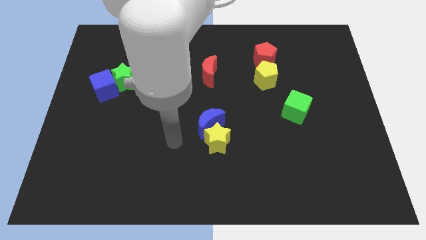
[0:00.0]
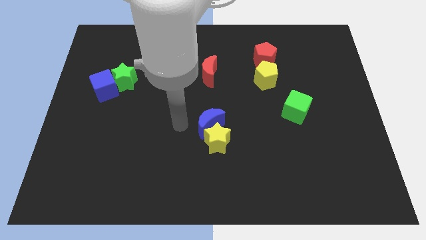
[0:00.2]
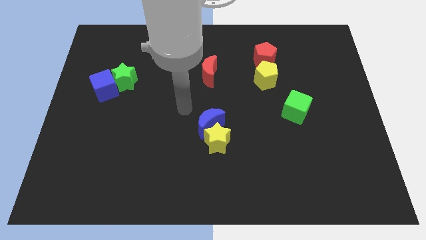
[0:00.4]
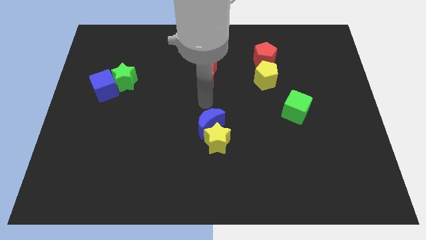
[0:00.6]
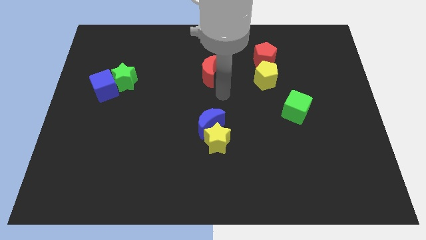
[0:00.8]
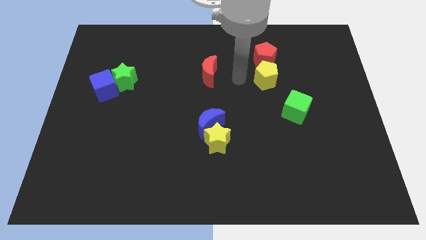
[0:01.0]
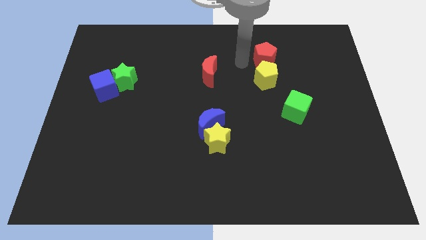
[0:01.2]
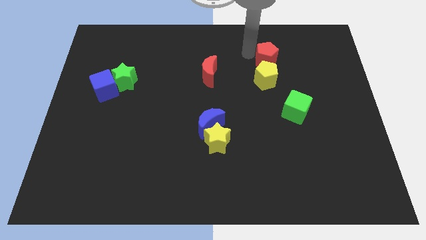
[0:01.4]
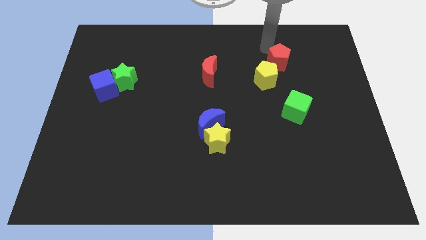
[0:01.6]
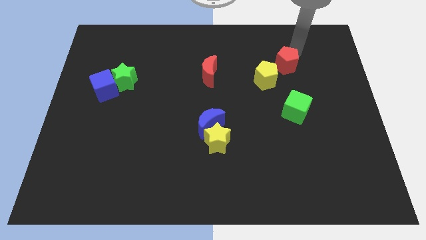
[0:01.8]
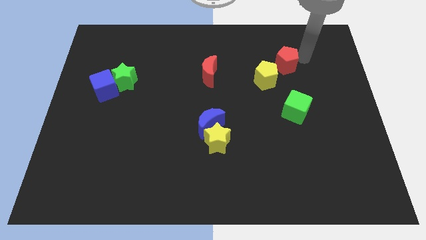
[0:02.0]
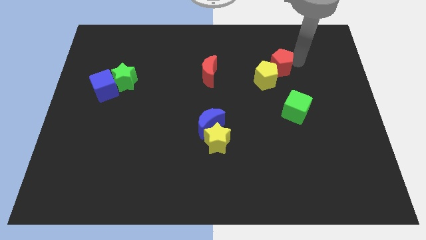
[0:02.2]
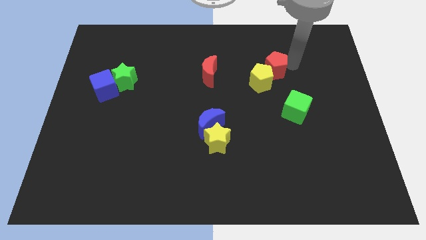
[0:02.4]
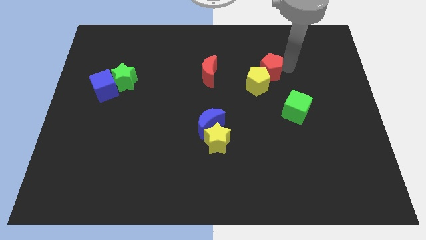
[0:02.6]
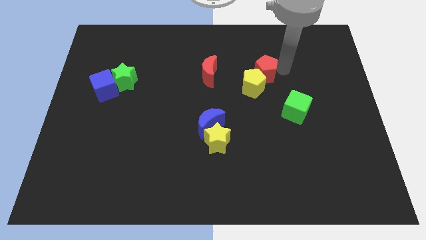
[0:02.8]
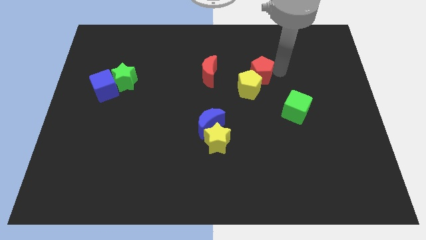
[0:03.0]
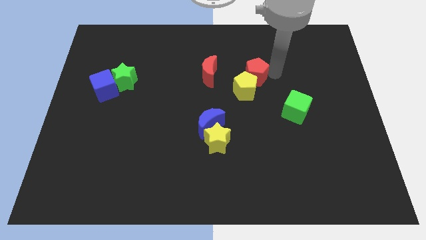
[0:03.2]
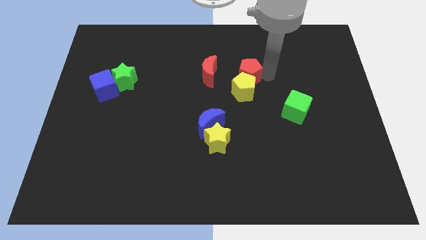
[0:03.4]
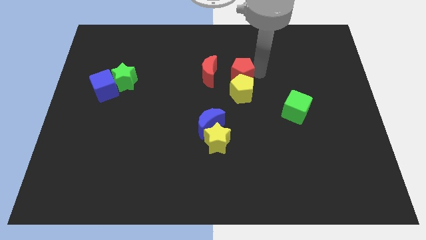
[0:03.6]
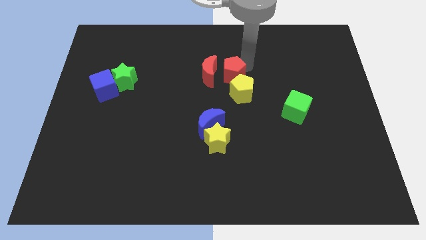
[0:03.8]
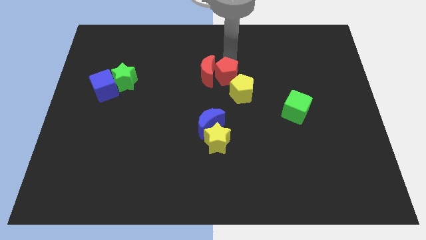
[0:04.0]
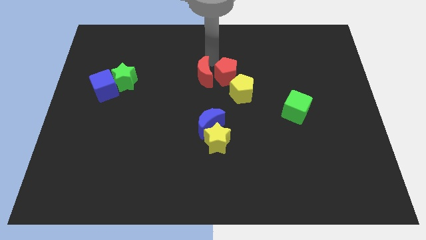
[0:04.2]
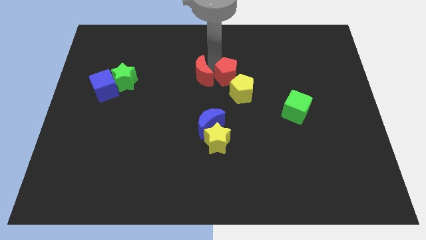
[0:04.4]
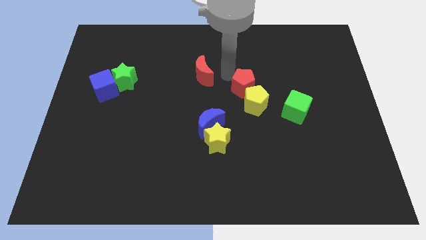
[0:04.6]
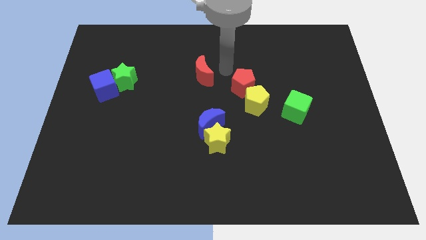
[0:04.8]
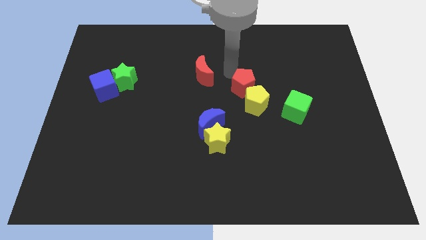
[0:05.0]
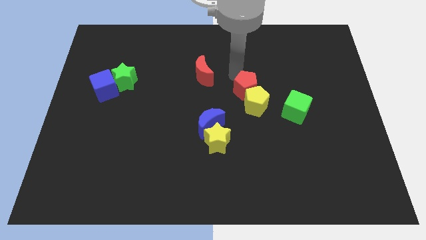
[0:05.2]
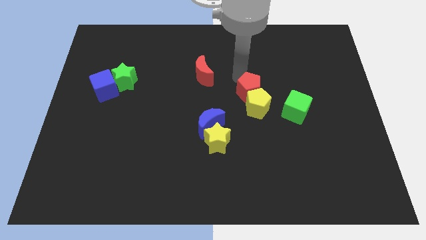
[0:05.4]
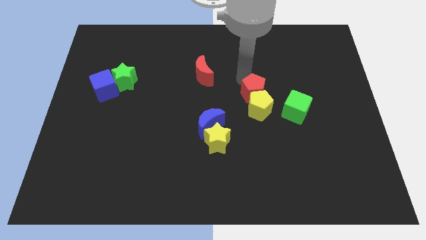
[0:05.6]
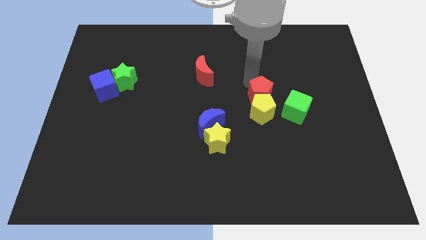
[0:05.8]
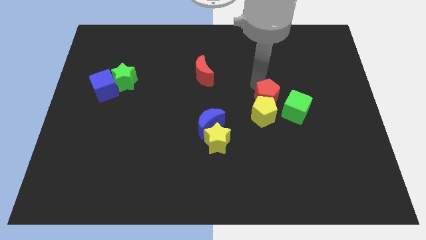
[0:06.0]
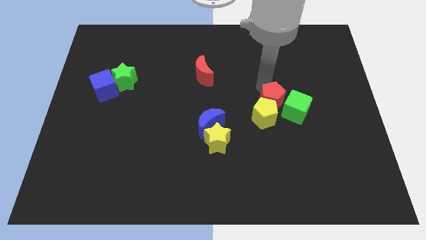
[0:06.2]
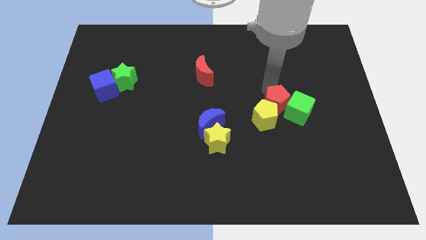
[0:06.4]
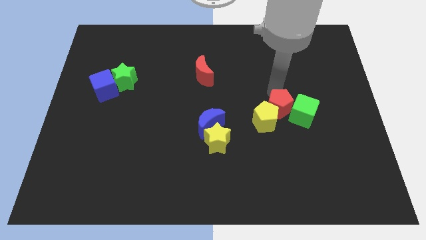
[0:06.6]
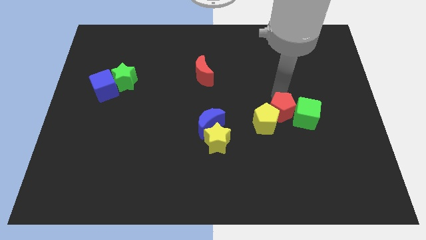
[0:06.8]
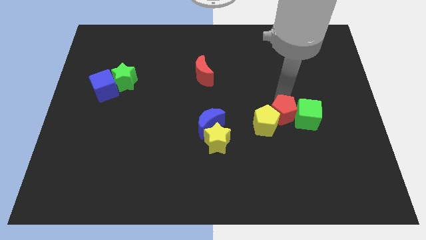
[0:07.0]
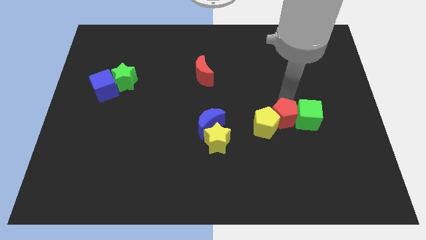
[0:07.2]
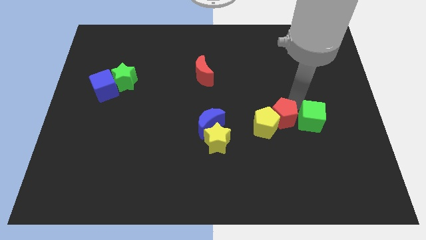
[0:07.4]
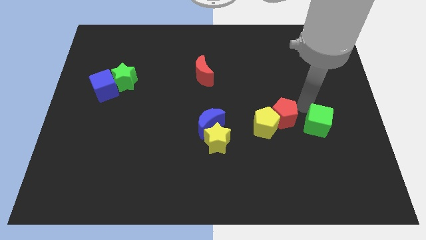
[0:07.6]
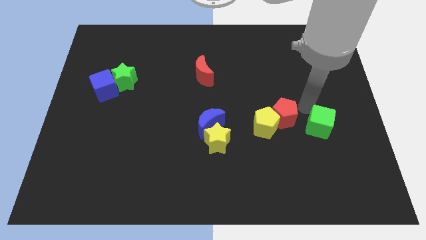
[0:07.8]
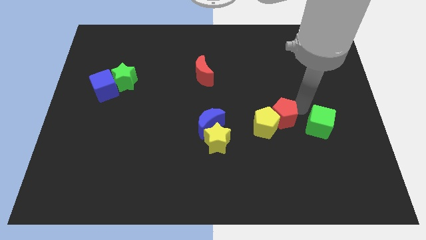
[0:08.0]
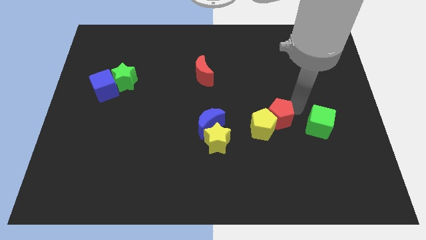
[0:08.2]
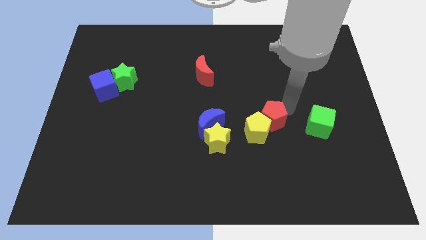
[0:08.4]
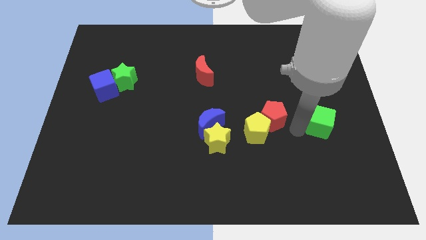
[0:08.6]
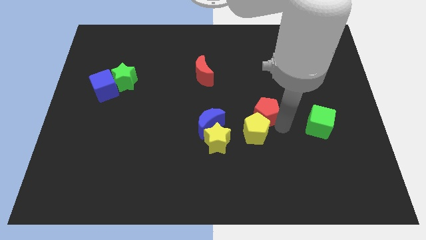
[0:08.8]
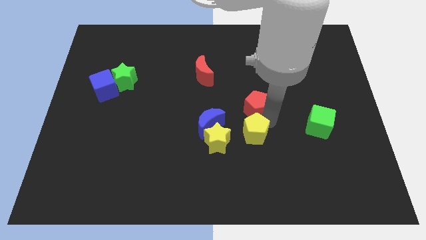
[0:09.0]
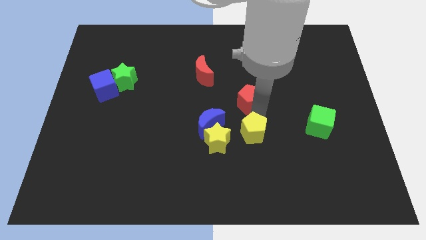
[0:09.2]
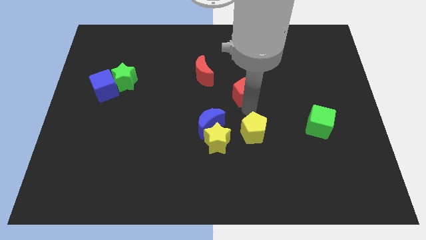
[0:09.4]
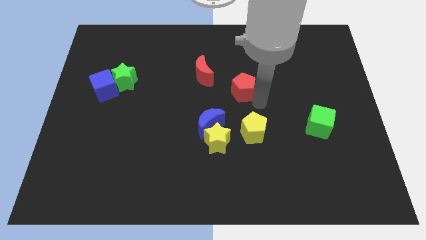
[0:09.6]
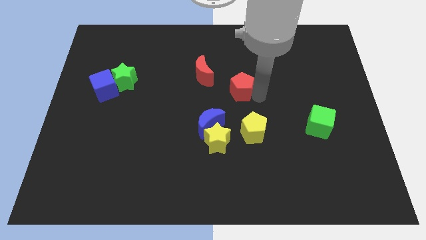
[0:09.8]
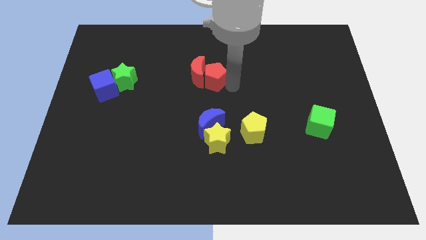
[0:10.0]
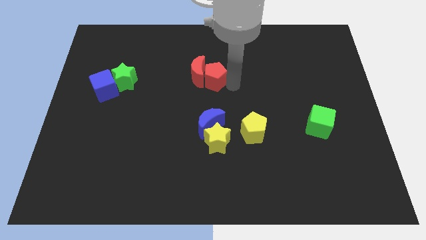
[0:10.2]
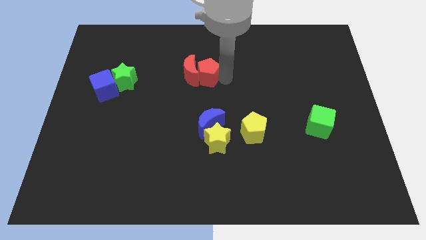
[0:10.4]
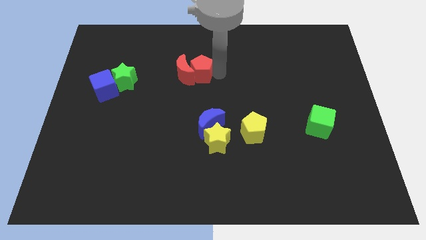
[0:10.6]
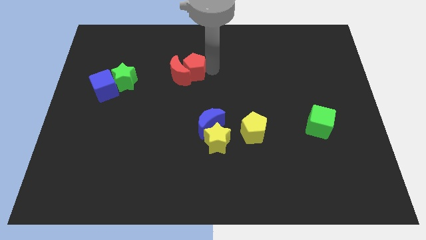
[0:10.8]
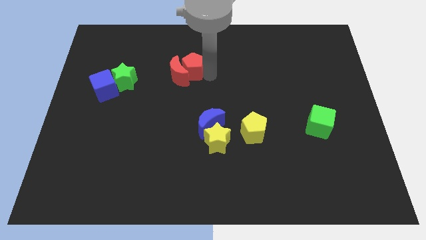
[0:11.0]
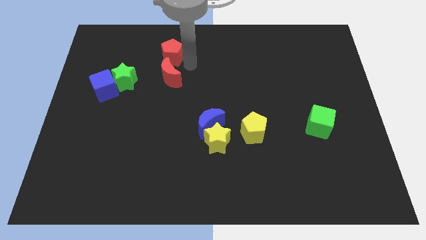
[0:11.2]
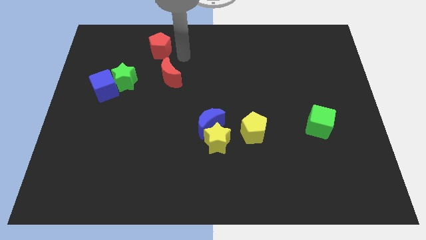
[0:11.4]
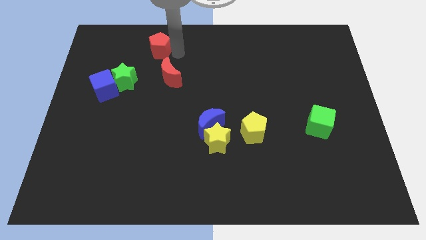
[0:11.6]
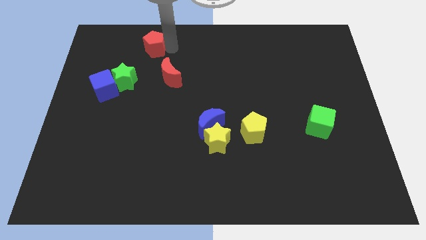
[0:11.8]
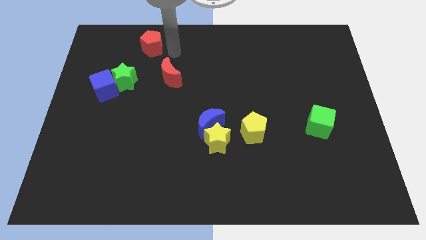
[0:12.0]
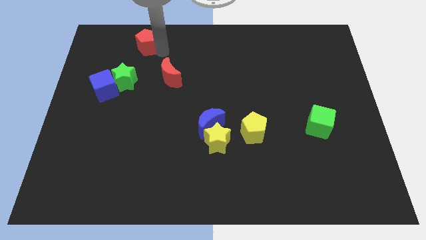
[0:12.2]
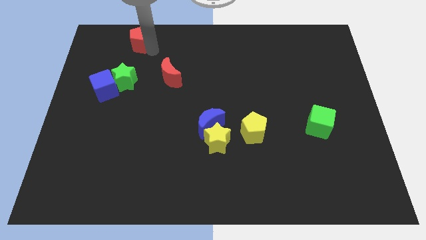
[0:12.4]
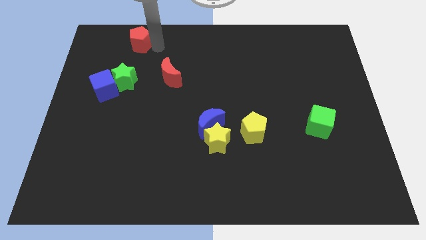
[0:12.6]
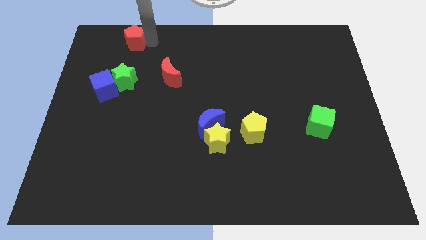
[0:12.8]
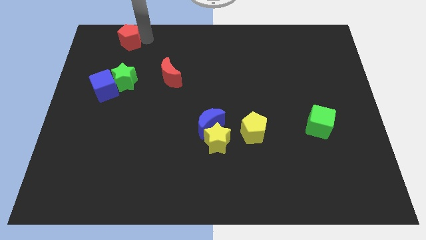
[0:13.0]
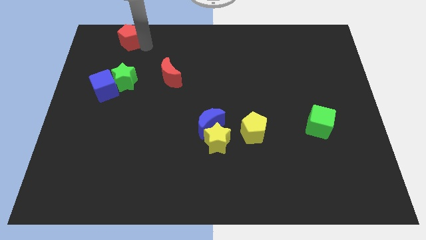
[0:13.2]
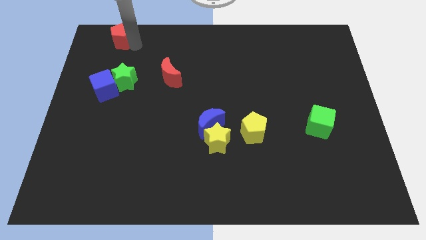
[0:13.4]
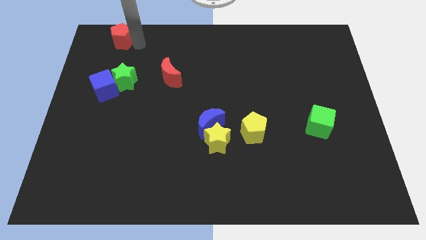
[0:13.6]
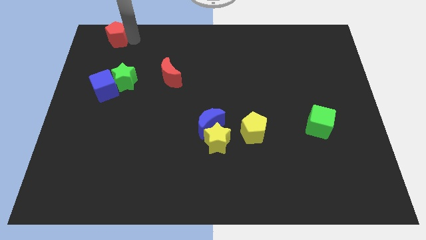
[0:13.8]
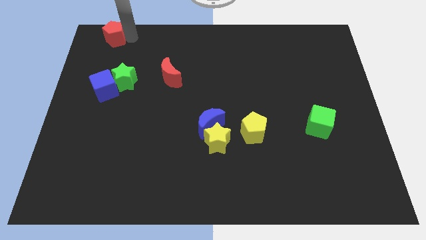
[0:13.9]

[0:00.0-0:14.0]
put the red pentagon to the upper left corner
